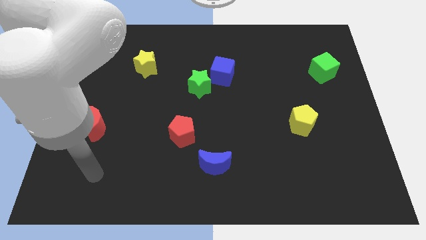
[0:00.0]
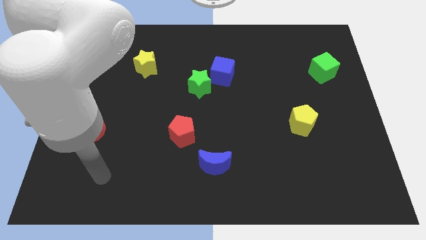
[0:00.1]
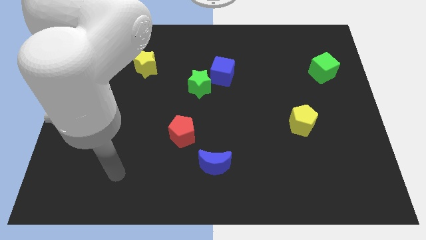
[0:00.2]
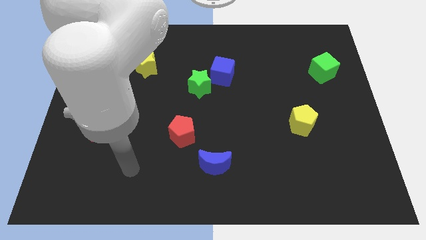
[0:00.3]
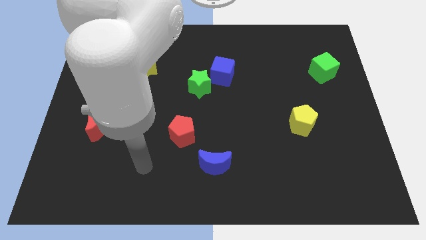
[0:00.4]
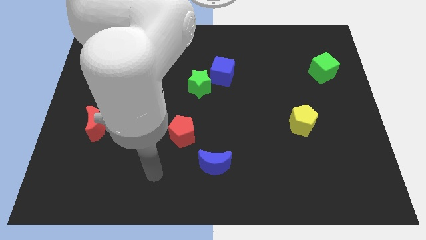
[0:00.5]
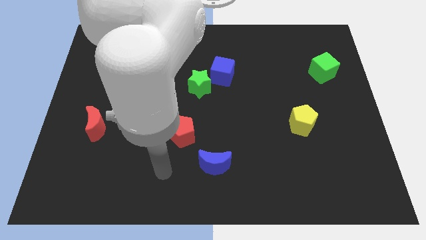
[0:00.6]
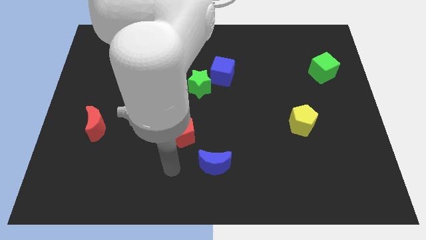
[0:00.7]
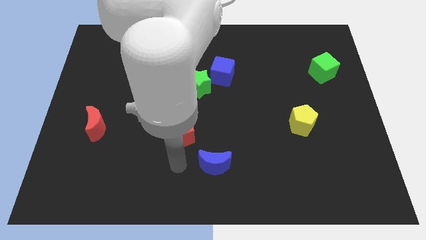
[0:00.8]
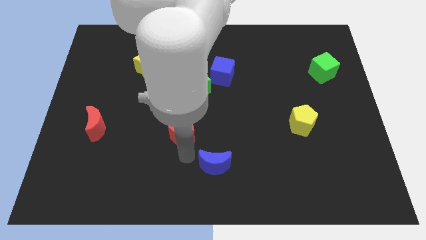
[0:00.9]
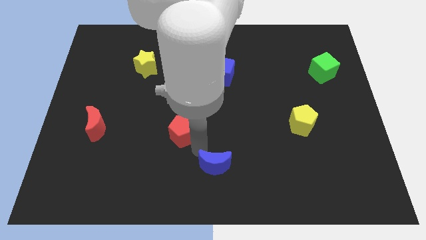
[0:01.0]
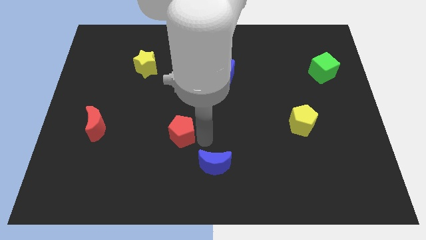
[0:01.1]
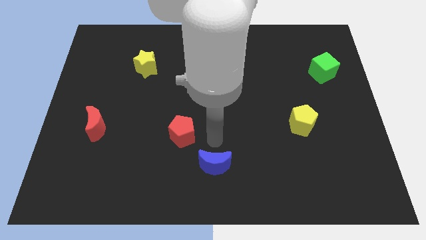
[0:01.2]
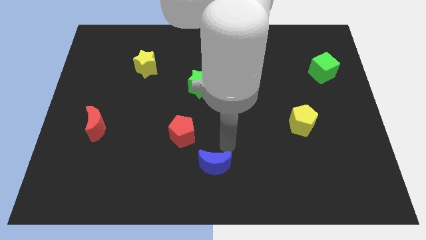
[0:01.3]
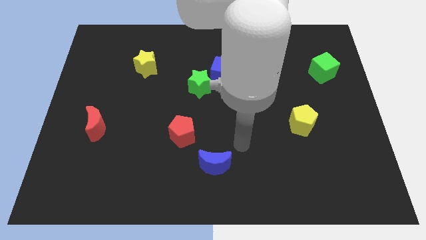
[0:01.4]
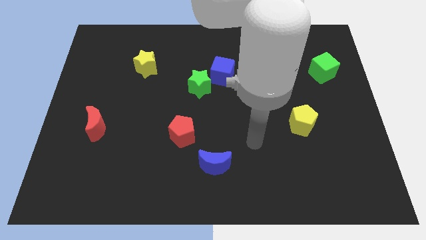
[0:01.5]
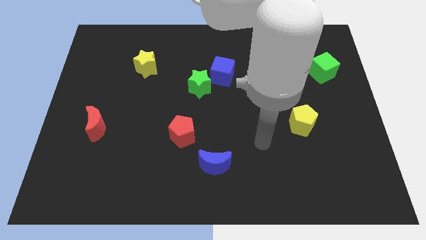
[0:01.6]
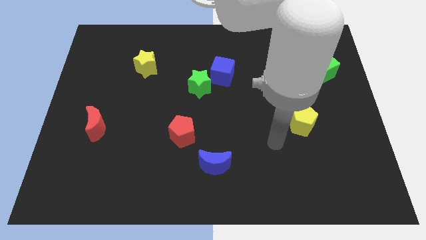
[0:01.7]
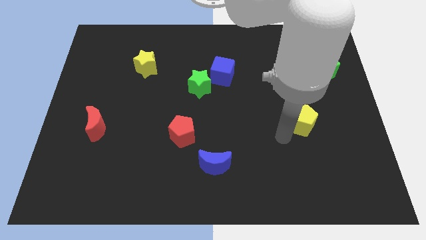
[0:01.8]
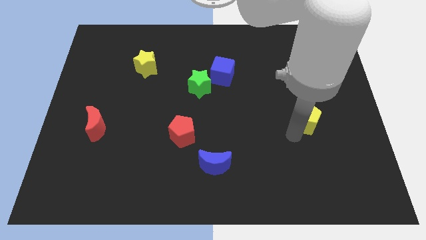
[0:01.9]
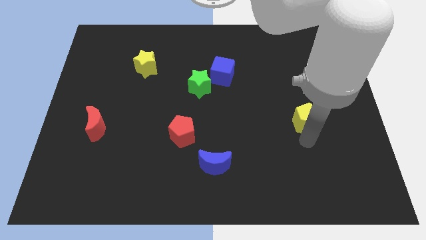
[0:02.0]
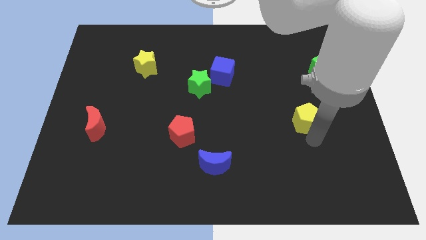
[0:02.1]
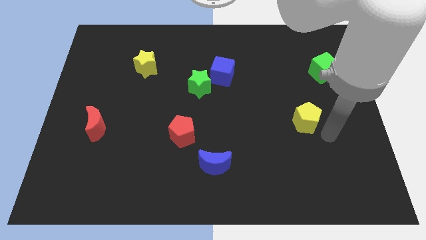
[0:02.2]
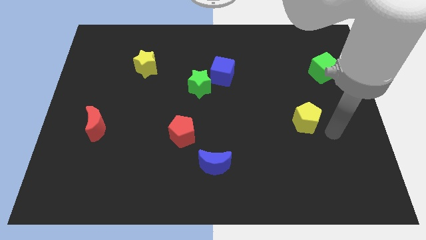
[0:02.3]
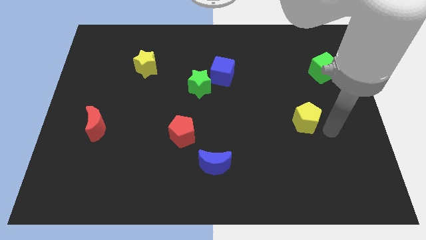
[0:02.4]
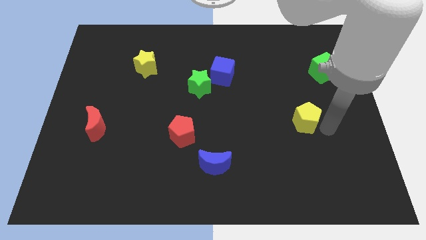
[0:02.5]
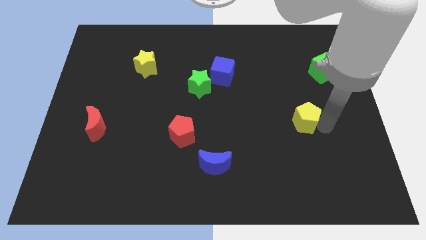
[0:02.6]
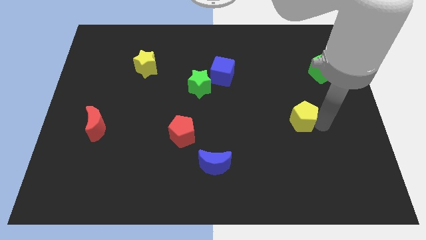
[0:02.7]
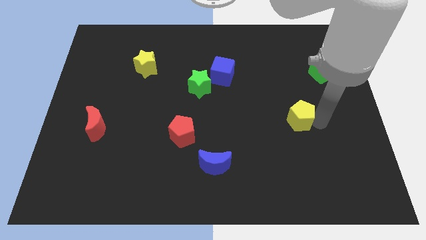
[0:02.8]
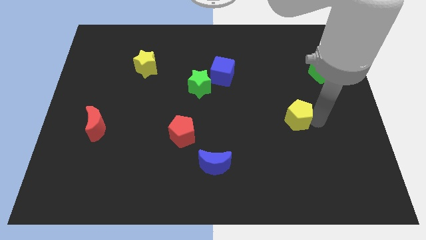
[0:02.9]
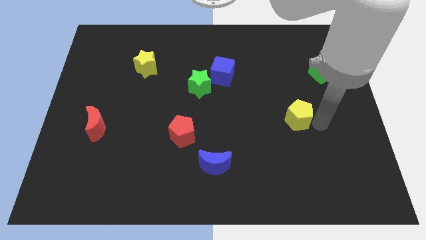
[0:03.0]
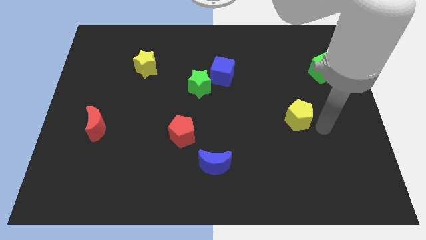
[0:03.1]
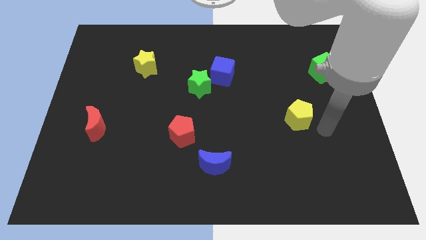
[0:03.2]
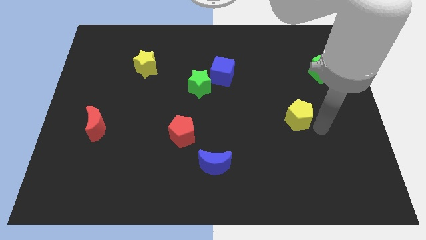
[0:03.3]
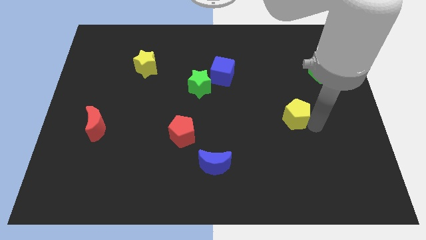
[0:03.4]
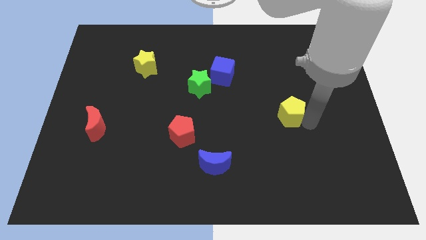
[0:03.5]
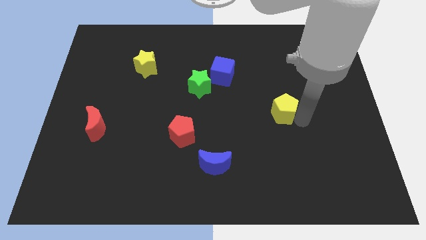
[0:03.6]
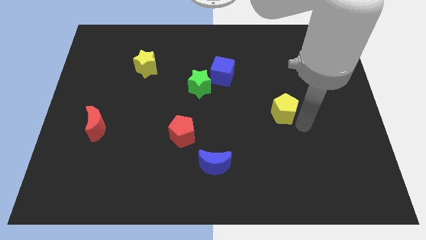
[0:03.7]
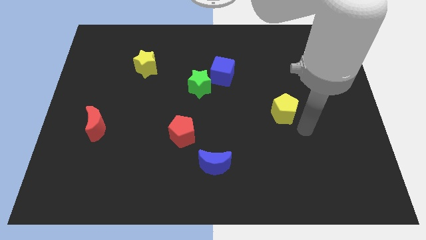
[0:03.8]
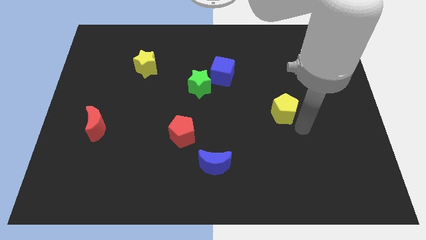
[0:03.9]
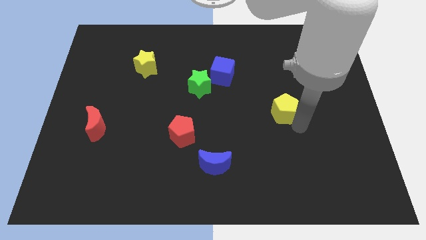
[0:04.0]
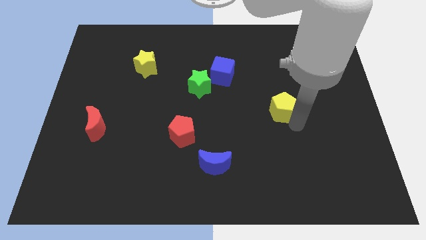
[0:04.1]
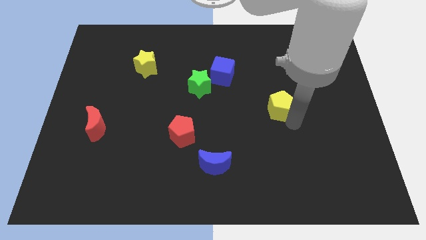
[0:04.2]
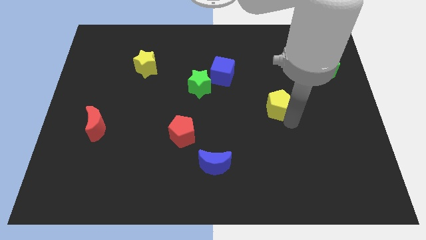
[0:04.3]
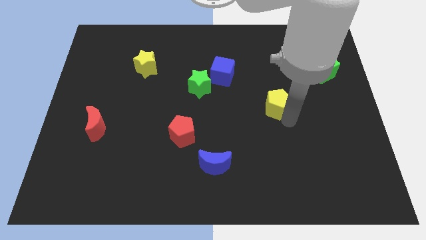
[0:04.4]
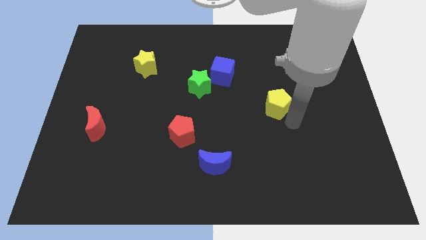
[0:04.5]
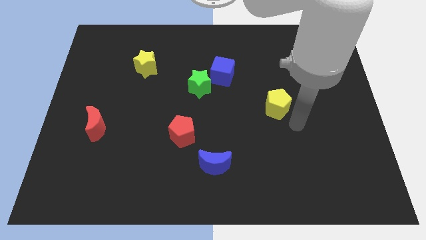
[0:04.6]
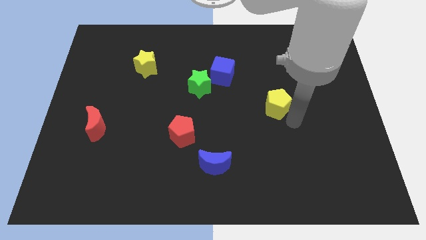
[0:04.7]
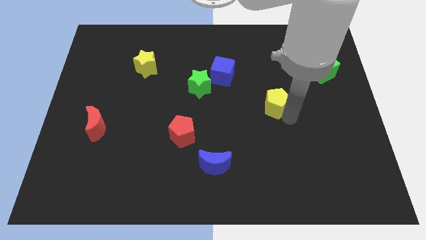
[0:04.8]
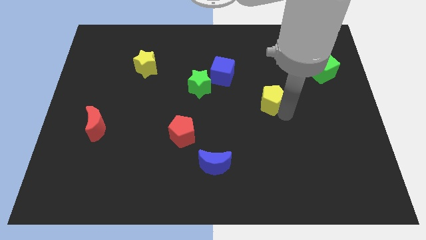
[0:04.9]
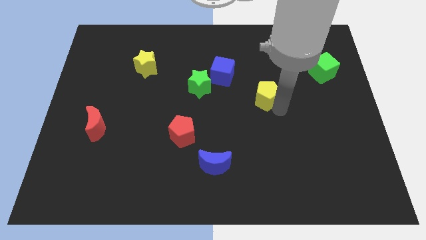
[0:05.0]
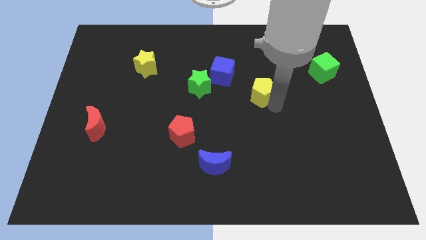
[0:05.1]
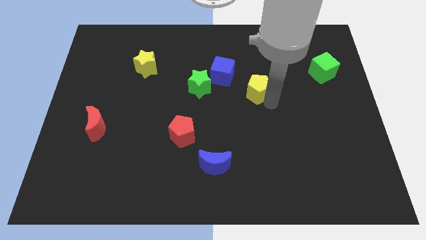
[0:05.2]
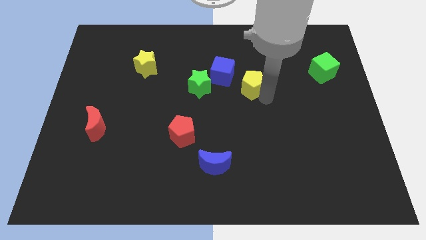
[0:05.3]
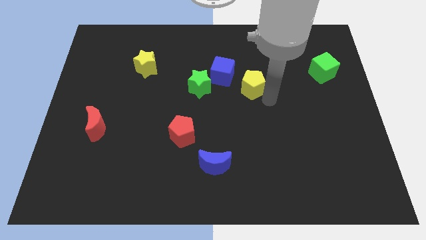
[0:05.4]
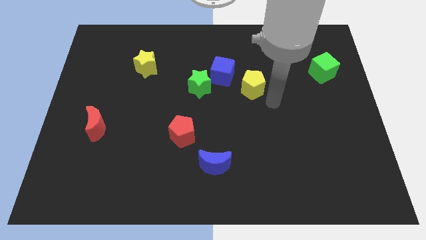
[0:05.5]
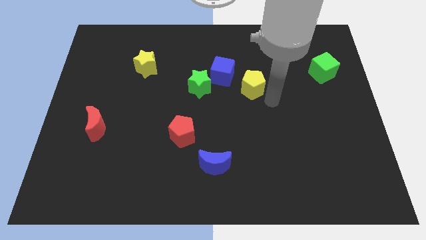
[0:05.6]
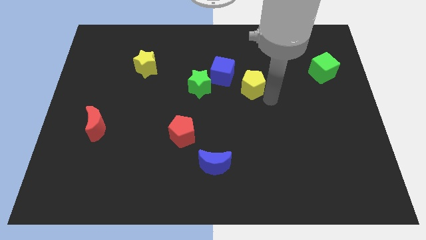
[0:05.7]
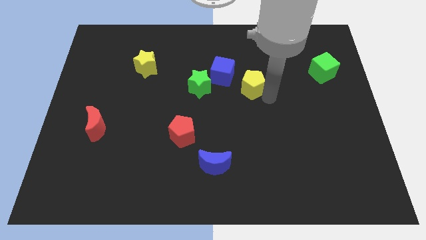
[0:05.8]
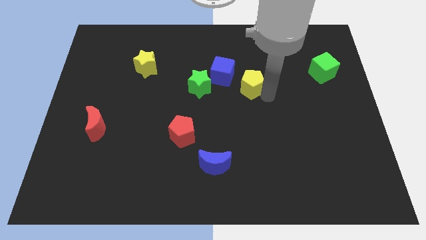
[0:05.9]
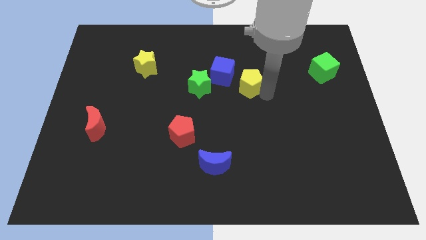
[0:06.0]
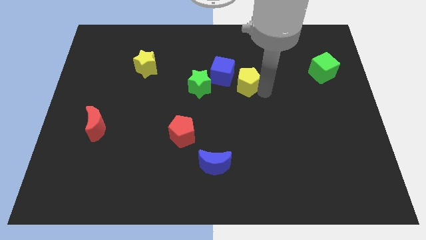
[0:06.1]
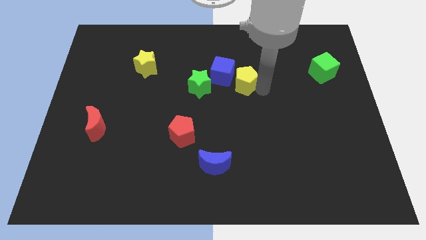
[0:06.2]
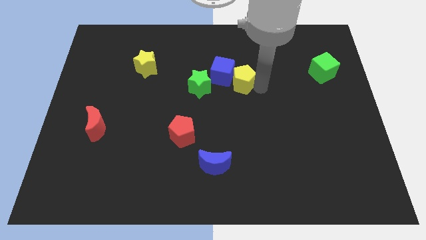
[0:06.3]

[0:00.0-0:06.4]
slide the yellow pentagon close to the blue cube

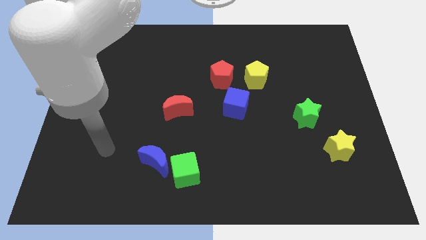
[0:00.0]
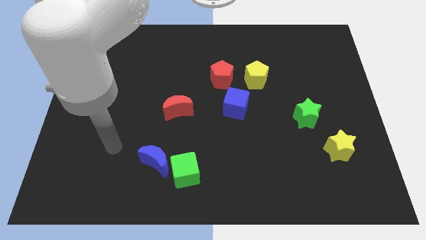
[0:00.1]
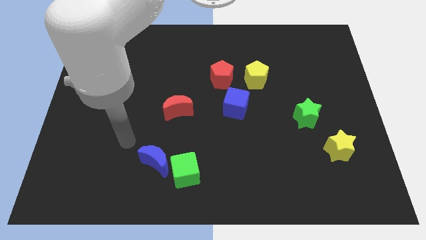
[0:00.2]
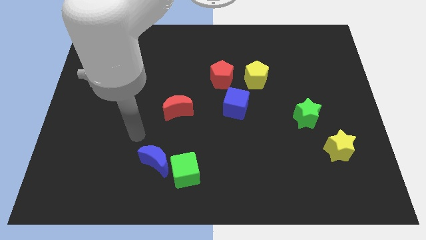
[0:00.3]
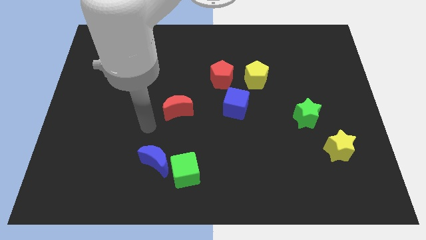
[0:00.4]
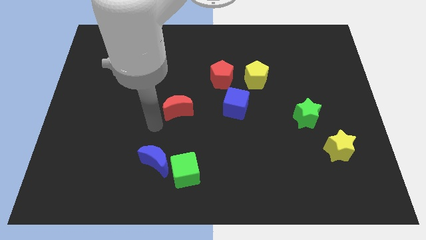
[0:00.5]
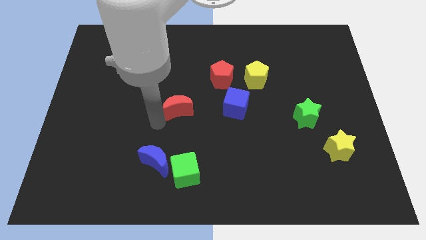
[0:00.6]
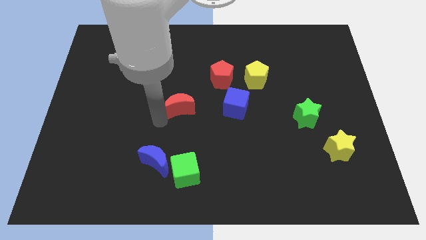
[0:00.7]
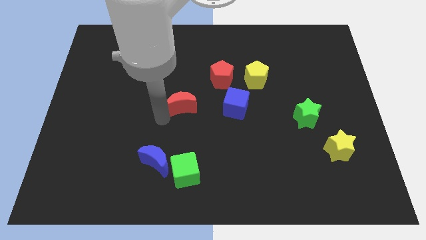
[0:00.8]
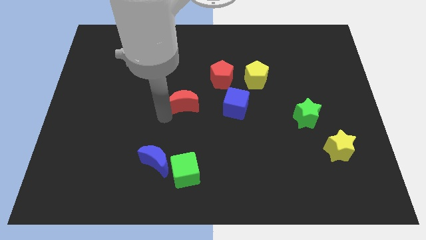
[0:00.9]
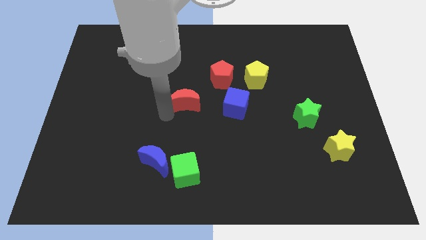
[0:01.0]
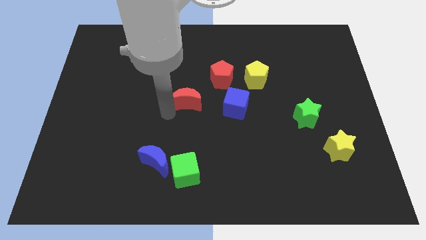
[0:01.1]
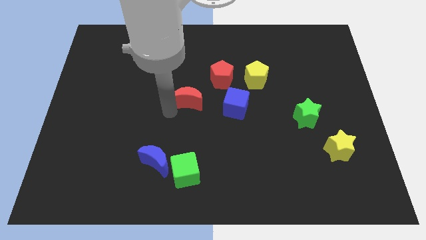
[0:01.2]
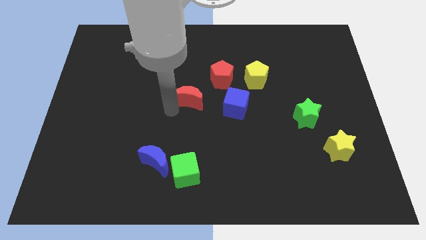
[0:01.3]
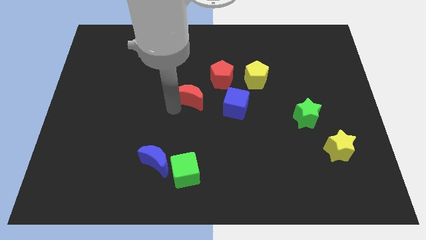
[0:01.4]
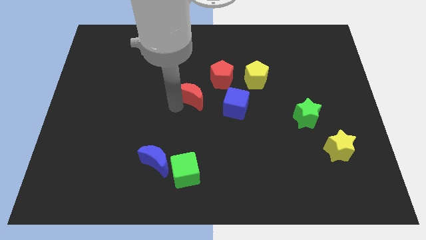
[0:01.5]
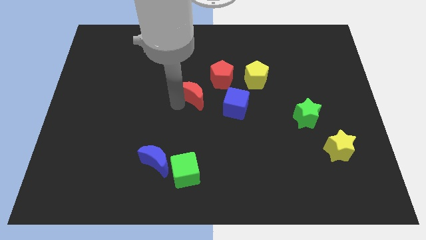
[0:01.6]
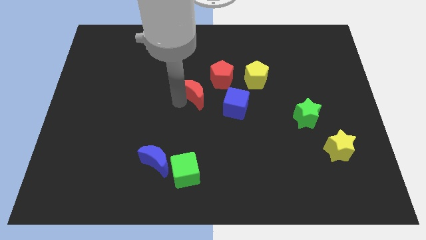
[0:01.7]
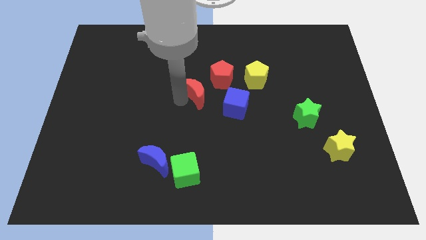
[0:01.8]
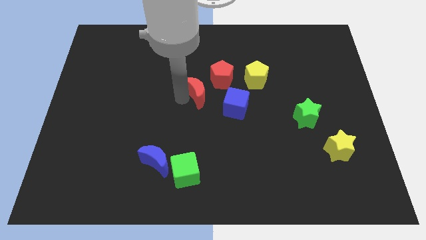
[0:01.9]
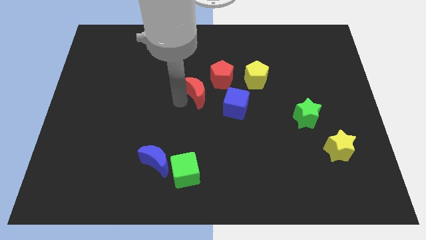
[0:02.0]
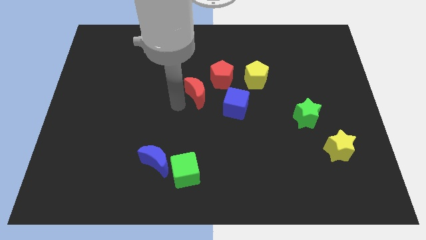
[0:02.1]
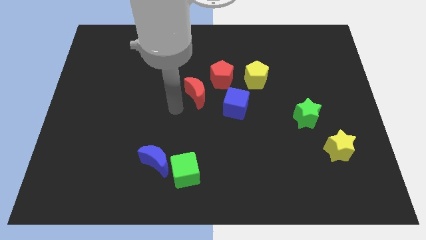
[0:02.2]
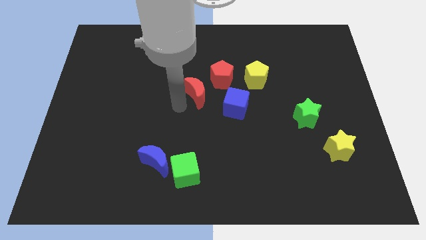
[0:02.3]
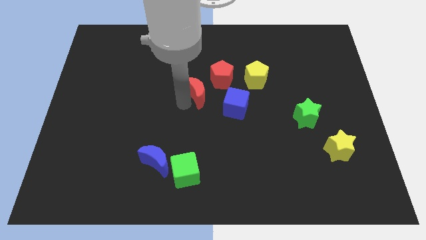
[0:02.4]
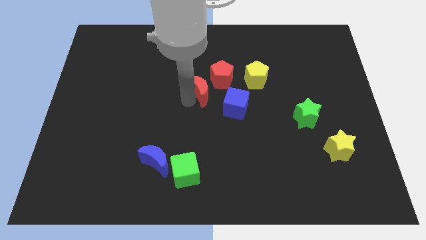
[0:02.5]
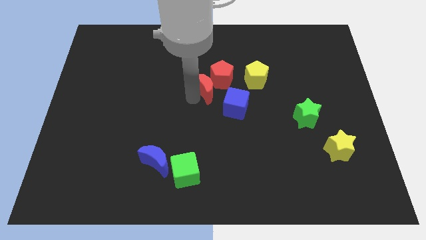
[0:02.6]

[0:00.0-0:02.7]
put the red moon towards the red pentagon
